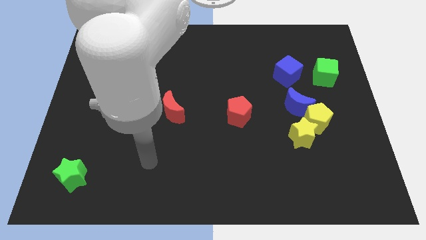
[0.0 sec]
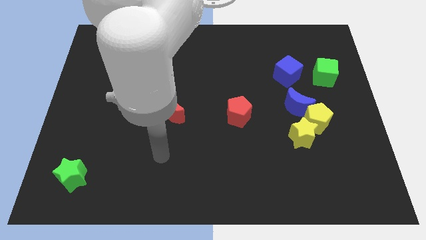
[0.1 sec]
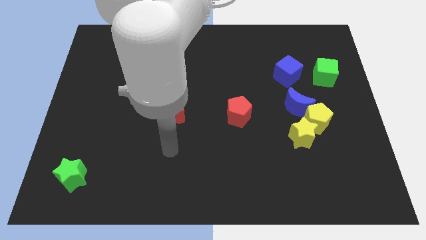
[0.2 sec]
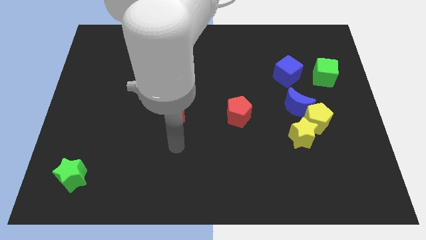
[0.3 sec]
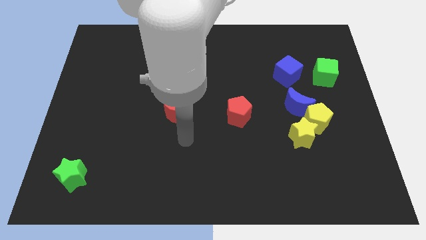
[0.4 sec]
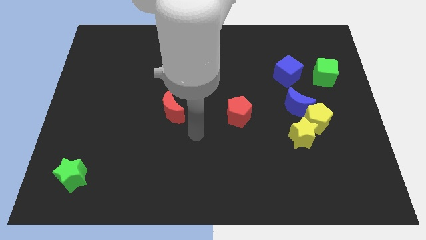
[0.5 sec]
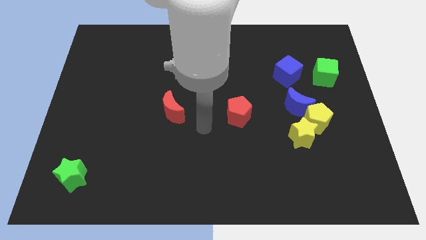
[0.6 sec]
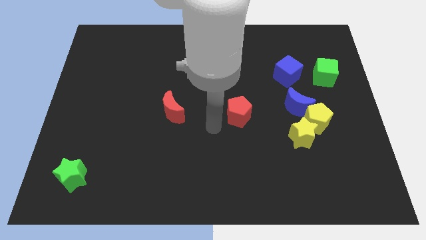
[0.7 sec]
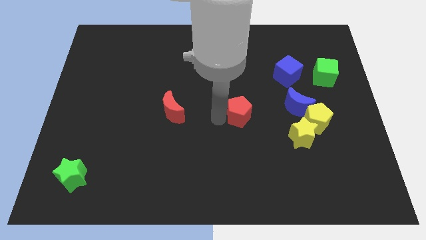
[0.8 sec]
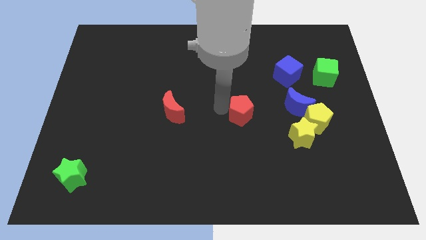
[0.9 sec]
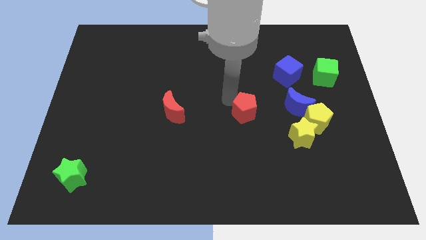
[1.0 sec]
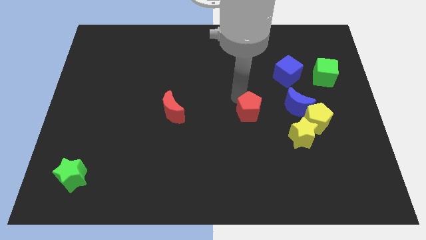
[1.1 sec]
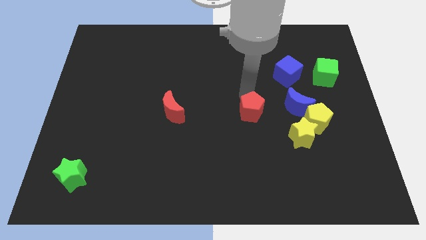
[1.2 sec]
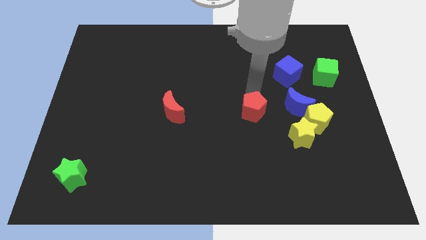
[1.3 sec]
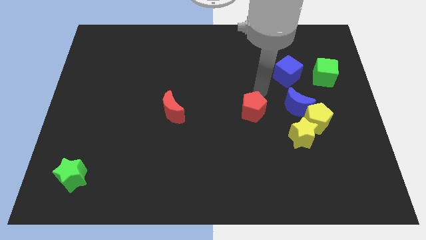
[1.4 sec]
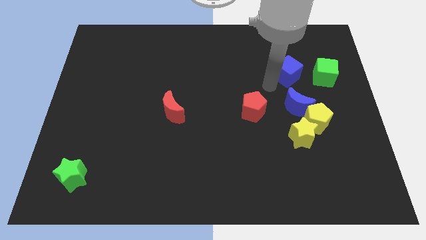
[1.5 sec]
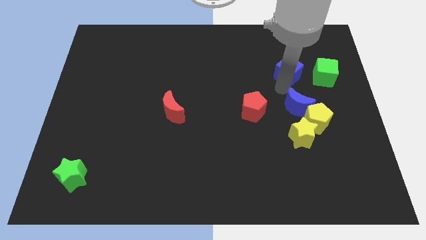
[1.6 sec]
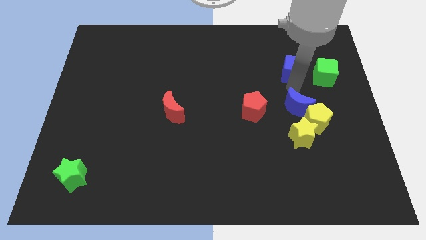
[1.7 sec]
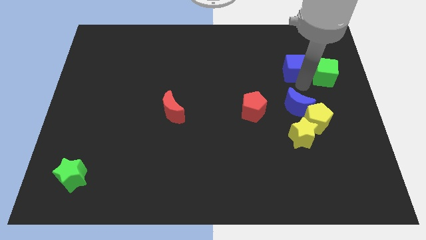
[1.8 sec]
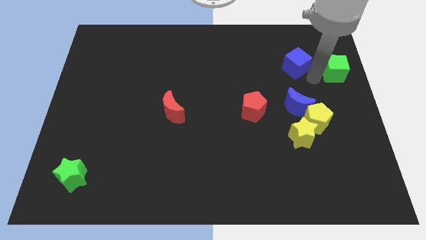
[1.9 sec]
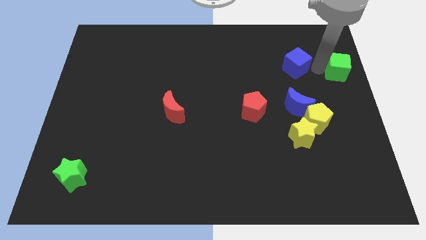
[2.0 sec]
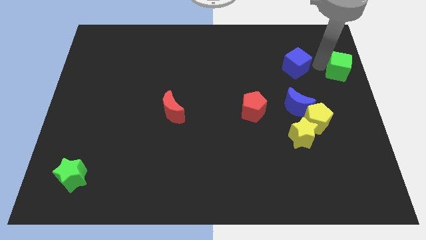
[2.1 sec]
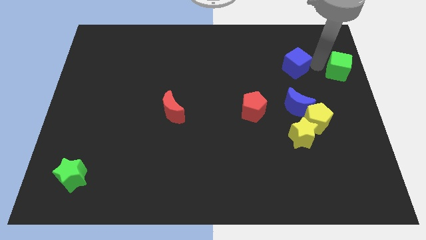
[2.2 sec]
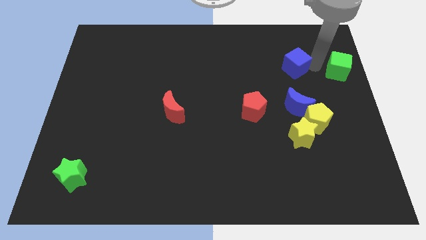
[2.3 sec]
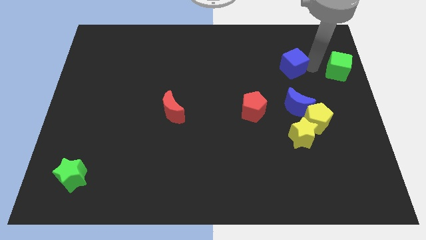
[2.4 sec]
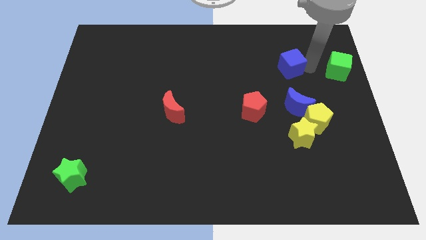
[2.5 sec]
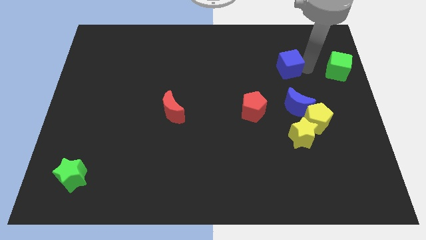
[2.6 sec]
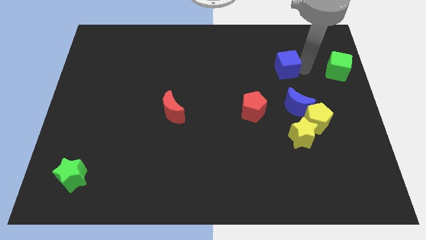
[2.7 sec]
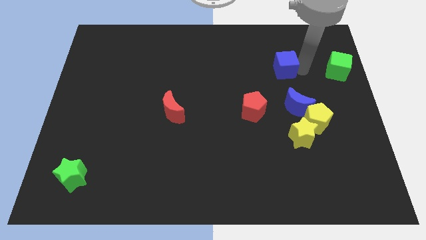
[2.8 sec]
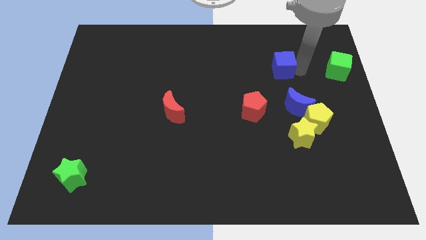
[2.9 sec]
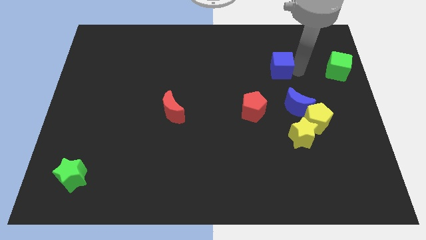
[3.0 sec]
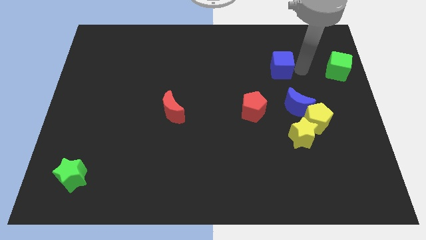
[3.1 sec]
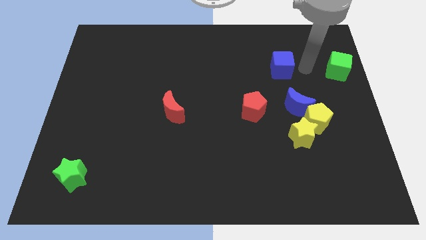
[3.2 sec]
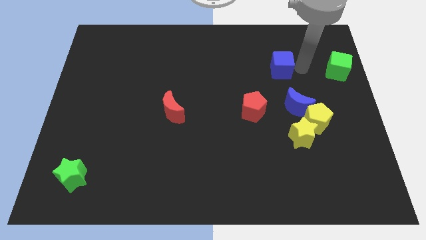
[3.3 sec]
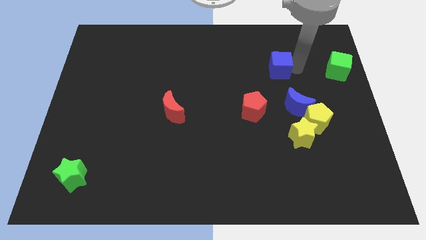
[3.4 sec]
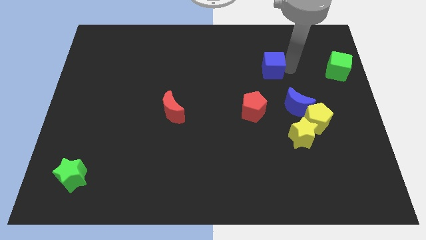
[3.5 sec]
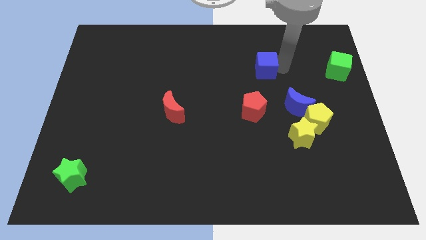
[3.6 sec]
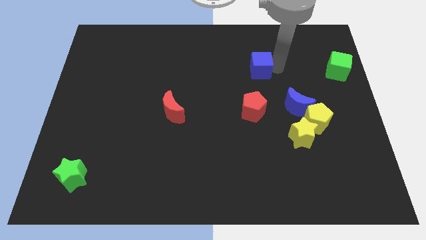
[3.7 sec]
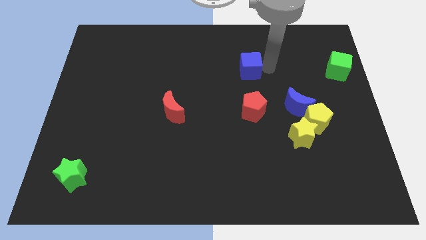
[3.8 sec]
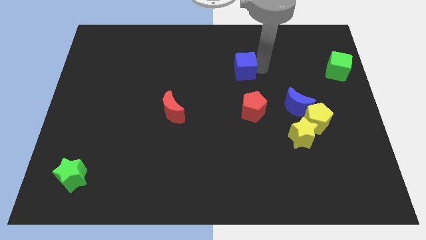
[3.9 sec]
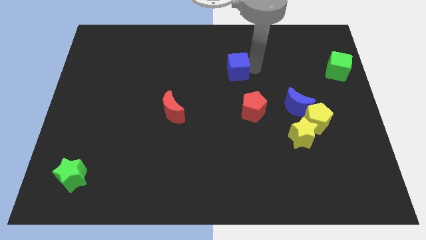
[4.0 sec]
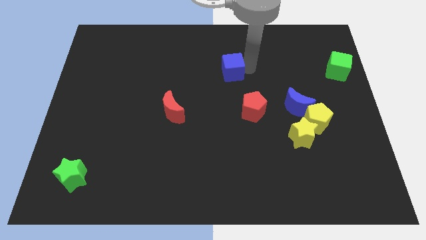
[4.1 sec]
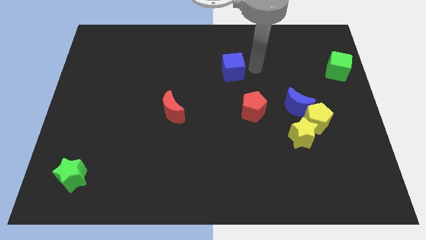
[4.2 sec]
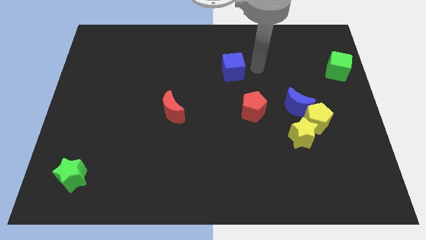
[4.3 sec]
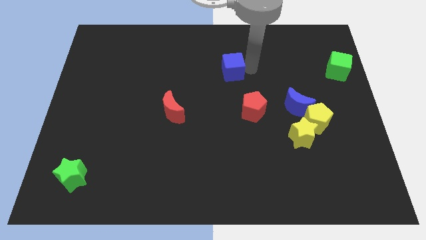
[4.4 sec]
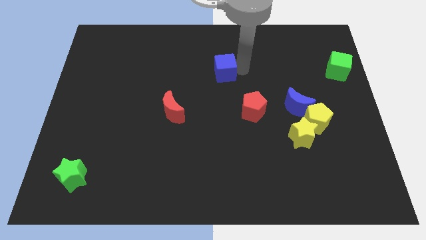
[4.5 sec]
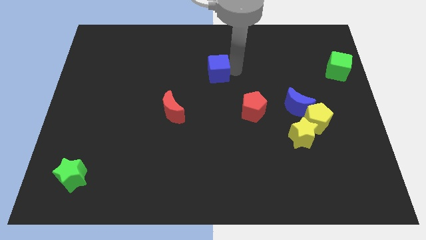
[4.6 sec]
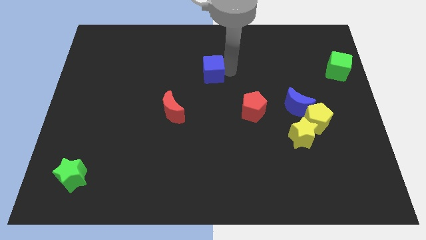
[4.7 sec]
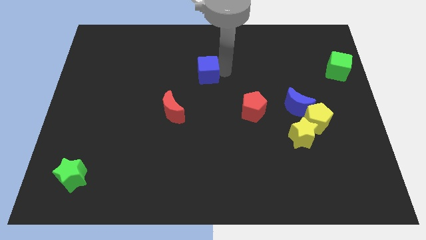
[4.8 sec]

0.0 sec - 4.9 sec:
push the blue cube left

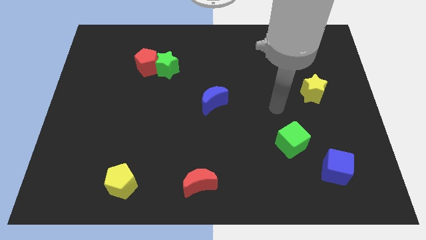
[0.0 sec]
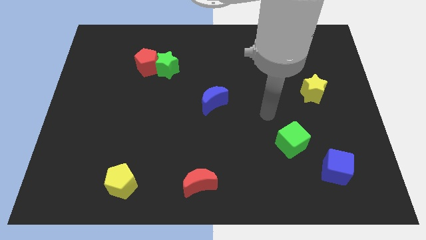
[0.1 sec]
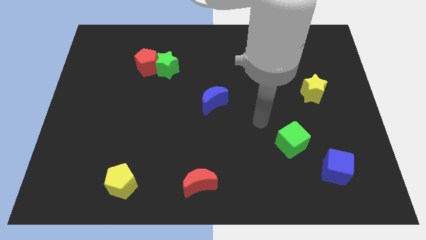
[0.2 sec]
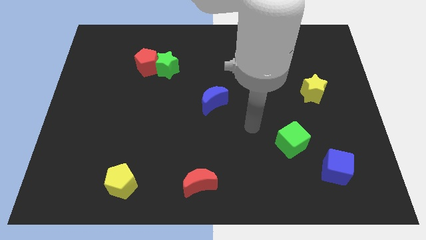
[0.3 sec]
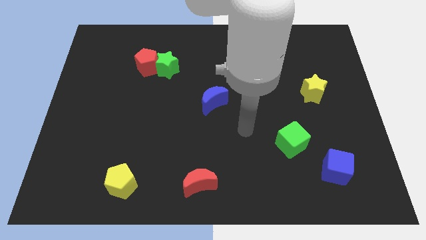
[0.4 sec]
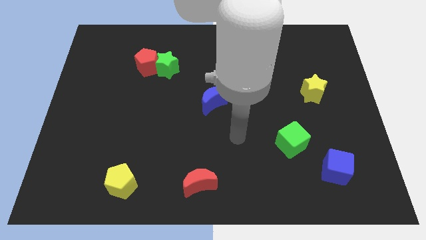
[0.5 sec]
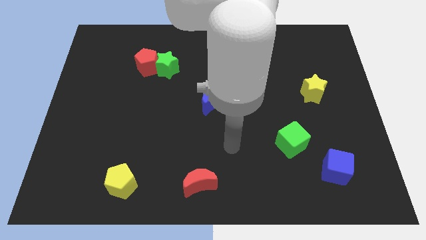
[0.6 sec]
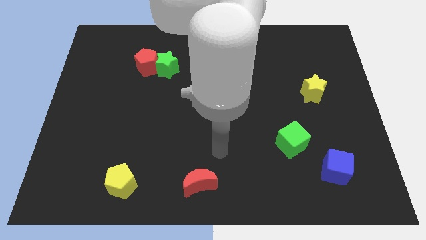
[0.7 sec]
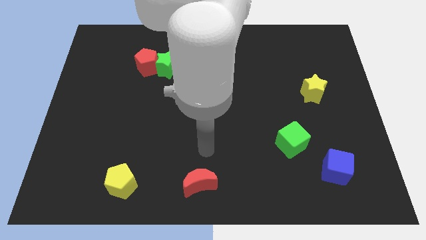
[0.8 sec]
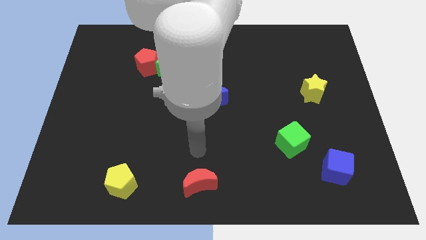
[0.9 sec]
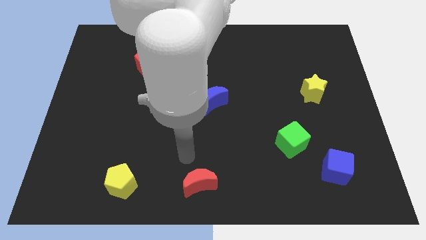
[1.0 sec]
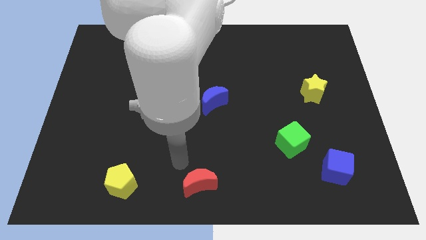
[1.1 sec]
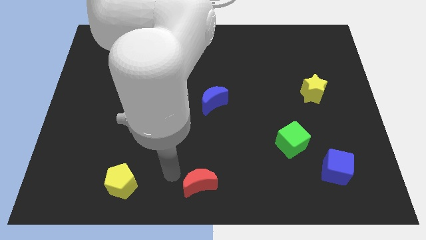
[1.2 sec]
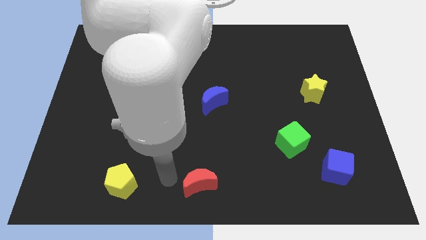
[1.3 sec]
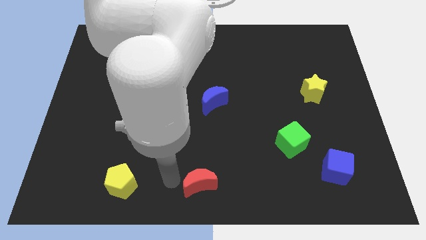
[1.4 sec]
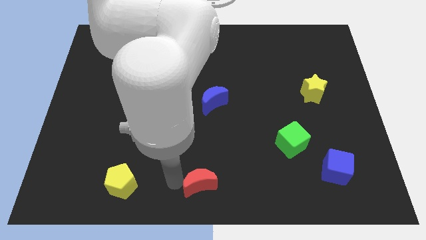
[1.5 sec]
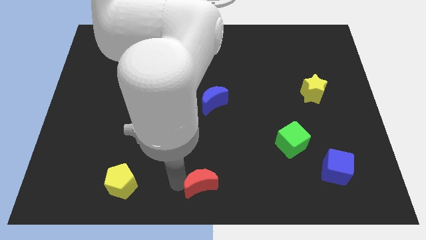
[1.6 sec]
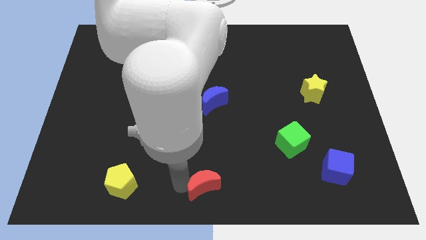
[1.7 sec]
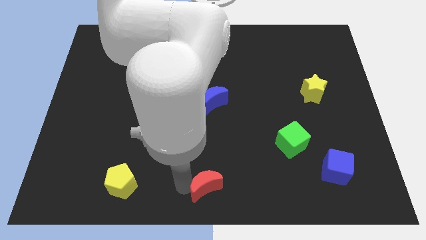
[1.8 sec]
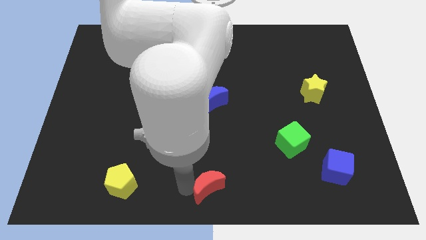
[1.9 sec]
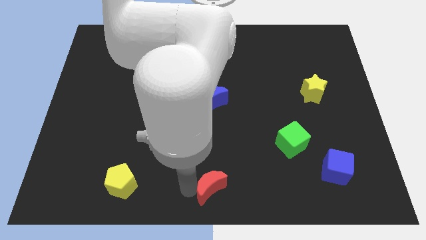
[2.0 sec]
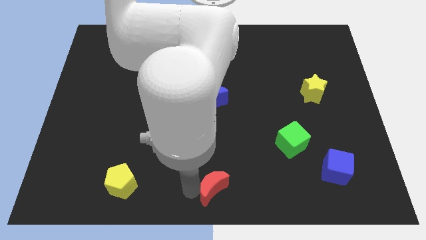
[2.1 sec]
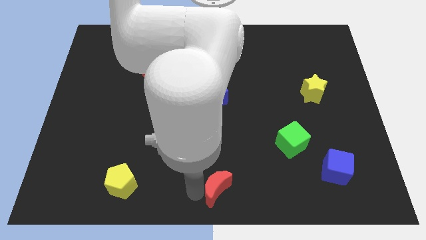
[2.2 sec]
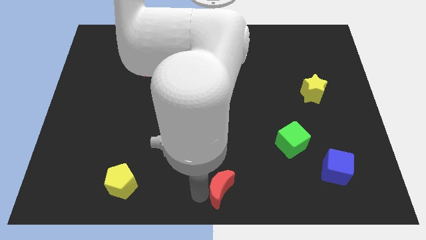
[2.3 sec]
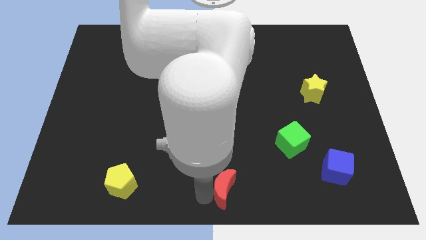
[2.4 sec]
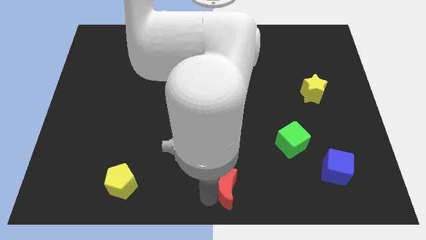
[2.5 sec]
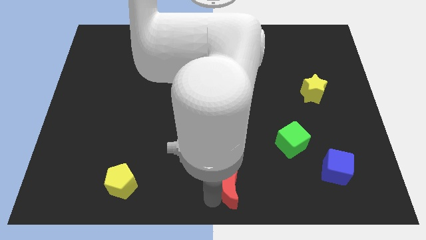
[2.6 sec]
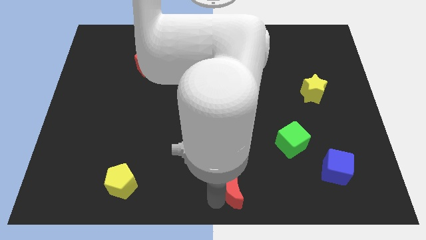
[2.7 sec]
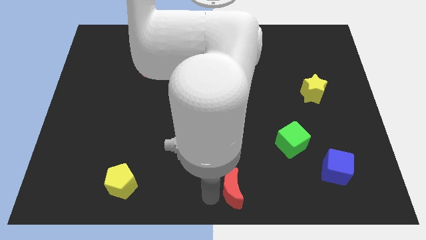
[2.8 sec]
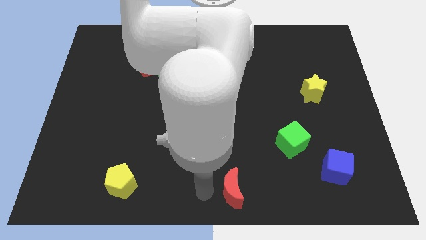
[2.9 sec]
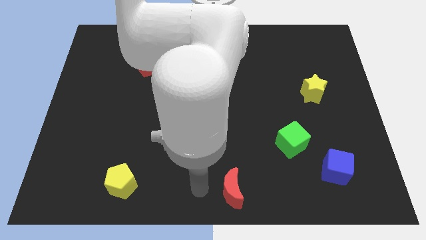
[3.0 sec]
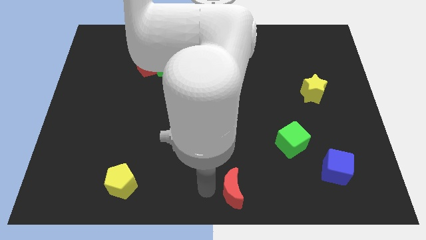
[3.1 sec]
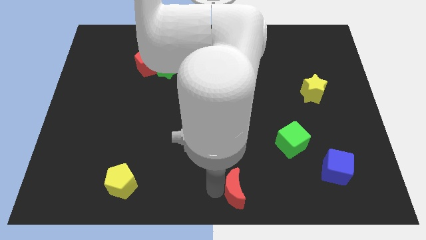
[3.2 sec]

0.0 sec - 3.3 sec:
slightly push the red moon to the right
